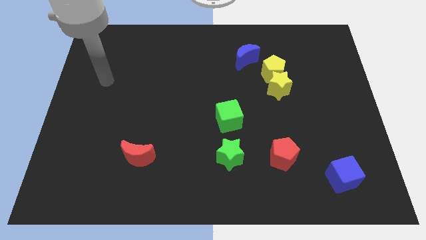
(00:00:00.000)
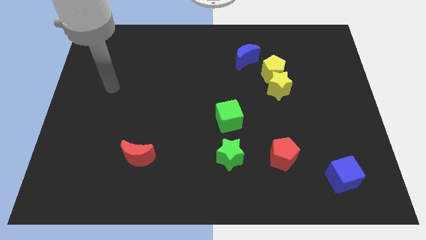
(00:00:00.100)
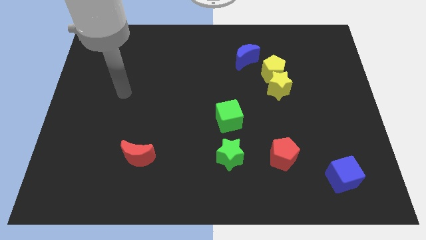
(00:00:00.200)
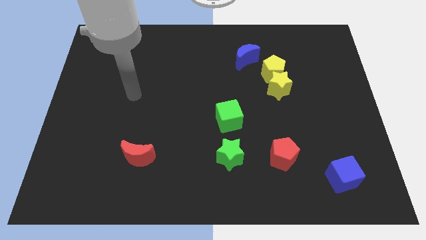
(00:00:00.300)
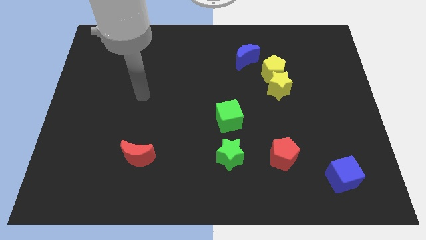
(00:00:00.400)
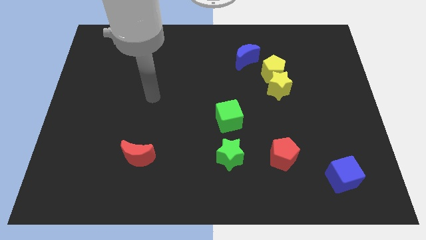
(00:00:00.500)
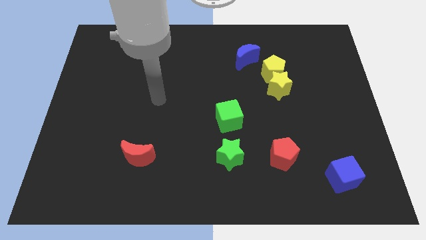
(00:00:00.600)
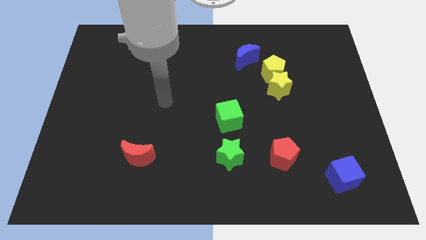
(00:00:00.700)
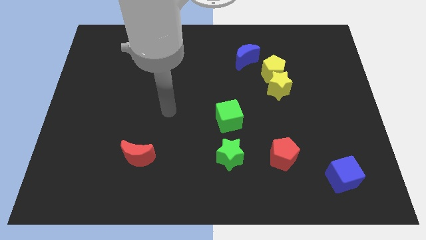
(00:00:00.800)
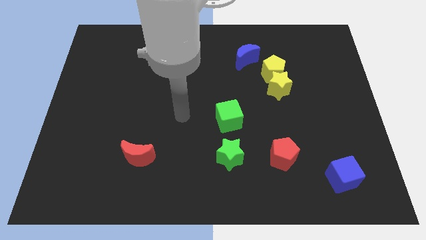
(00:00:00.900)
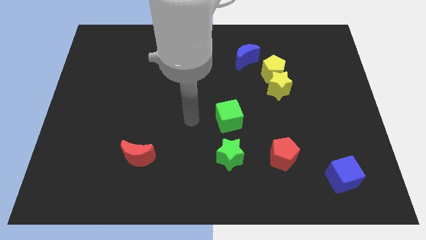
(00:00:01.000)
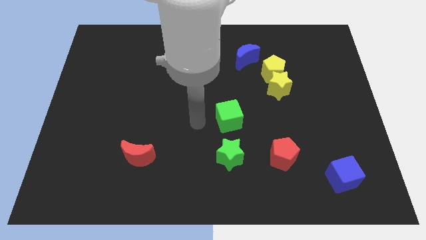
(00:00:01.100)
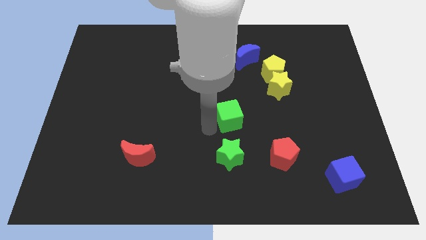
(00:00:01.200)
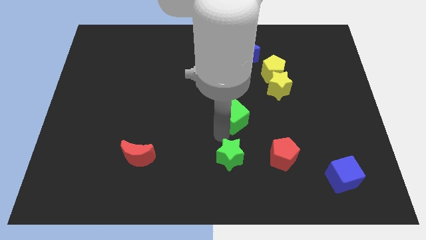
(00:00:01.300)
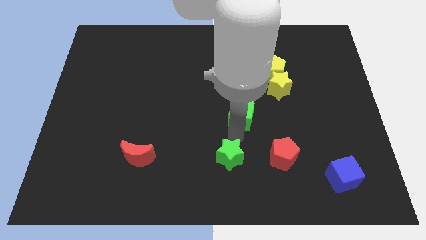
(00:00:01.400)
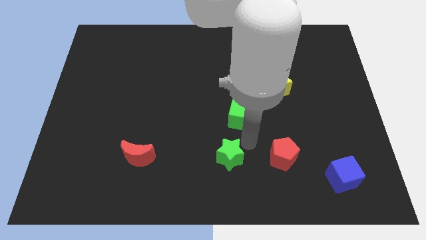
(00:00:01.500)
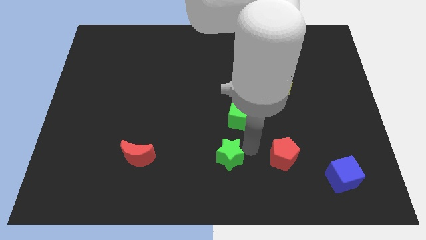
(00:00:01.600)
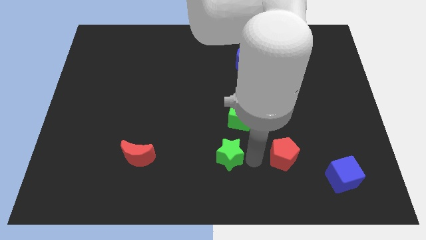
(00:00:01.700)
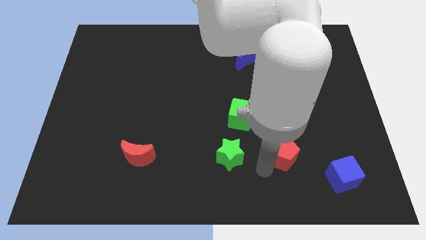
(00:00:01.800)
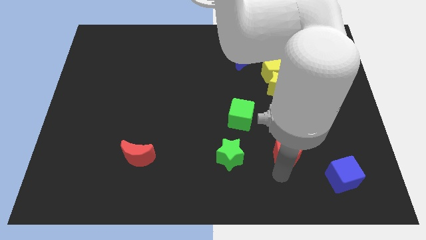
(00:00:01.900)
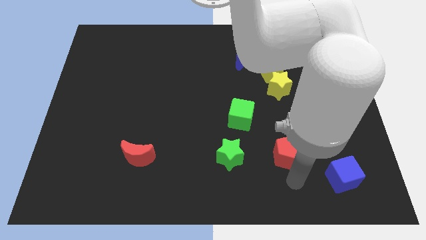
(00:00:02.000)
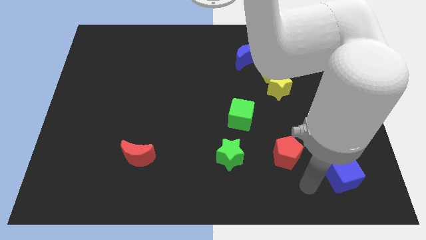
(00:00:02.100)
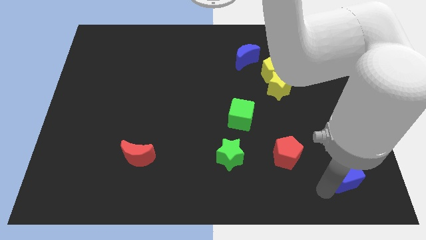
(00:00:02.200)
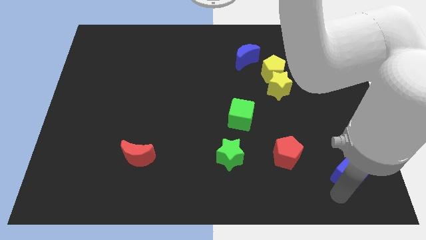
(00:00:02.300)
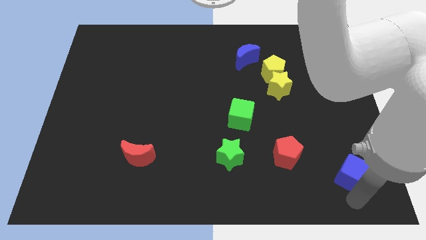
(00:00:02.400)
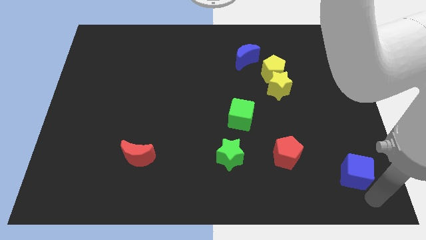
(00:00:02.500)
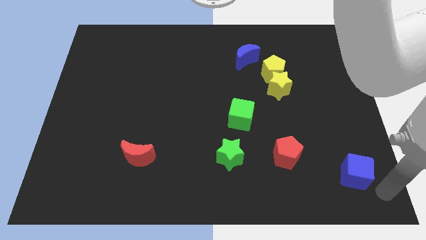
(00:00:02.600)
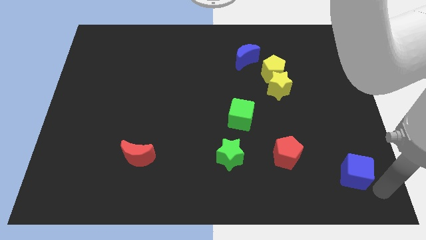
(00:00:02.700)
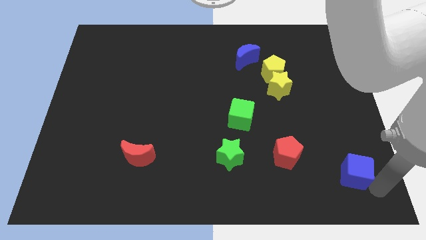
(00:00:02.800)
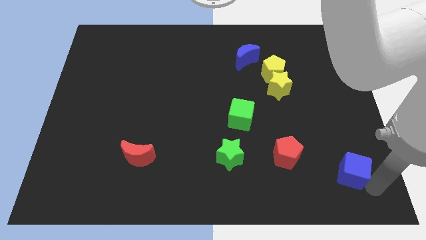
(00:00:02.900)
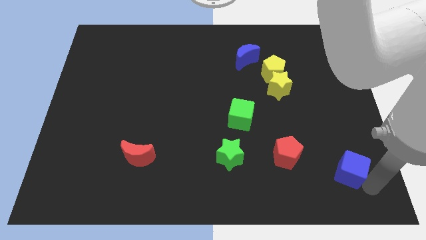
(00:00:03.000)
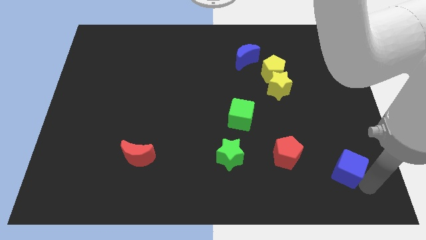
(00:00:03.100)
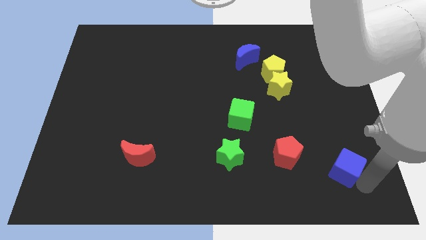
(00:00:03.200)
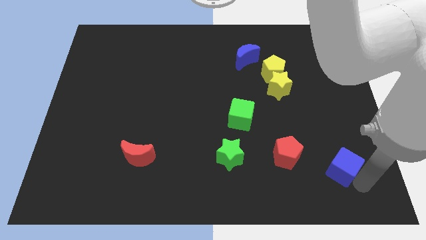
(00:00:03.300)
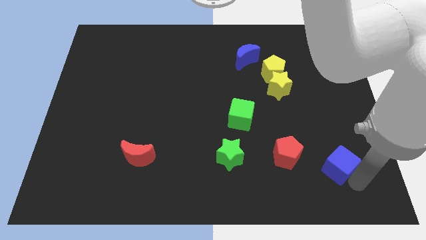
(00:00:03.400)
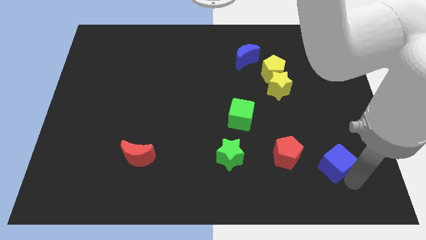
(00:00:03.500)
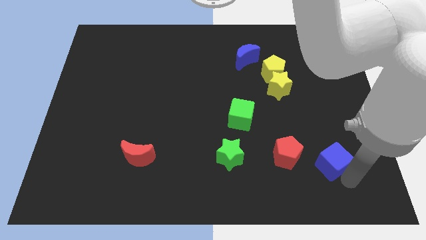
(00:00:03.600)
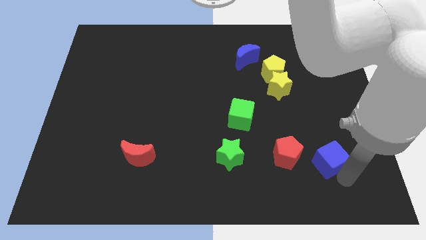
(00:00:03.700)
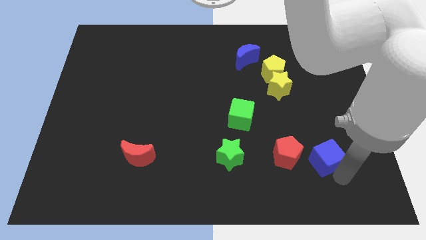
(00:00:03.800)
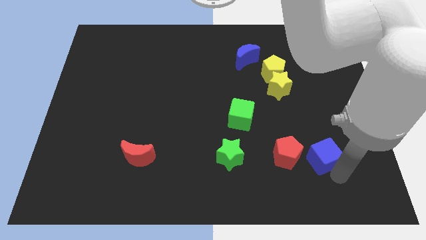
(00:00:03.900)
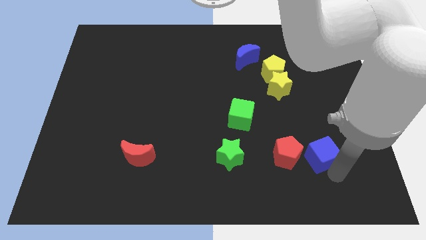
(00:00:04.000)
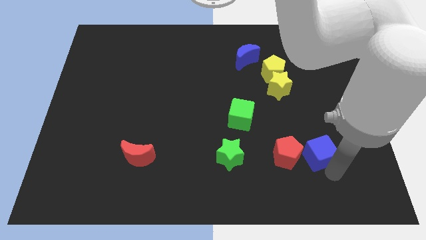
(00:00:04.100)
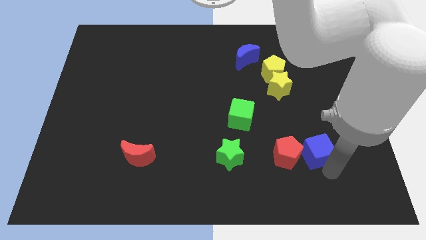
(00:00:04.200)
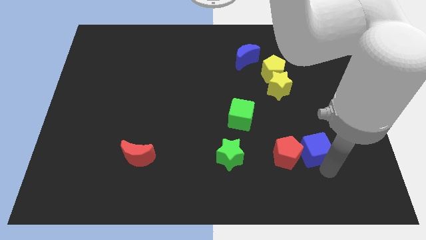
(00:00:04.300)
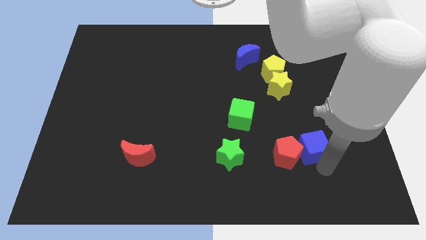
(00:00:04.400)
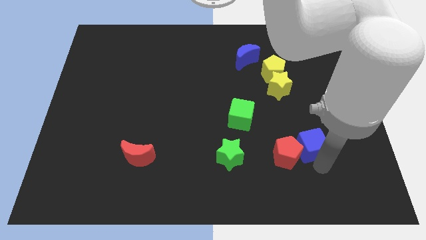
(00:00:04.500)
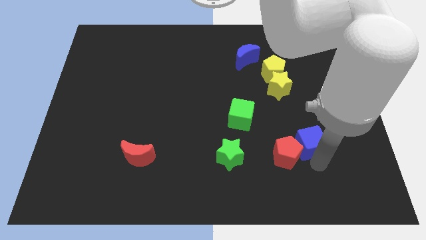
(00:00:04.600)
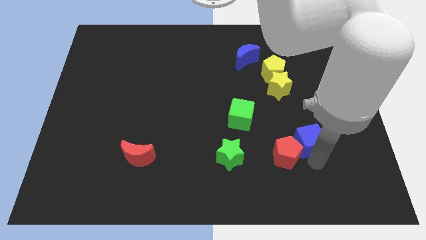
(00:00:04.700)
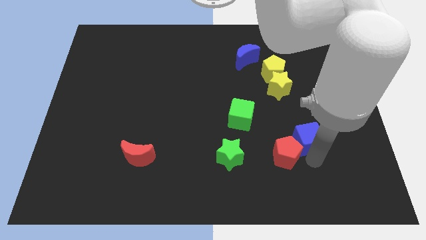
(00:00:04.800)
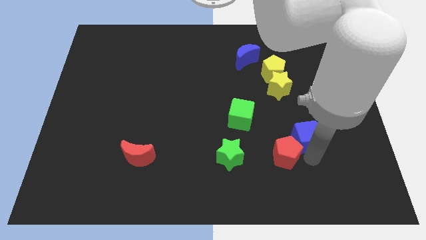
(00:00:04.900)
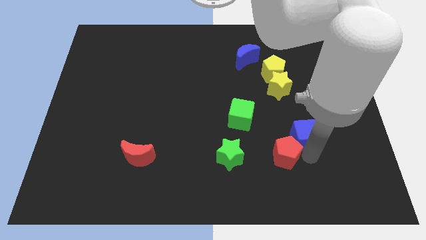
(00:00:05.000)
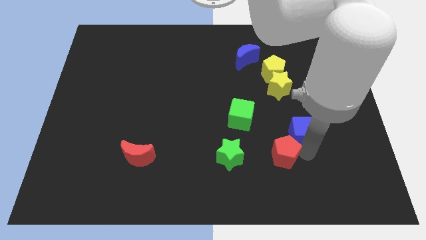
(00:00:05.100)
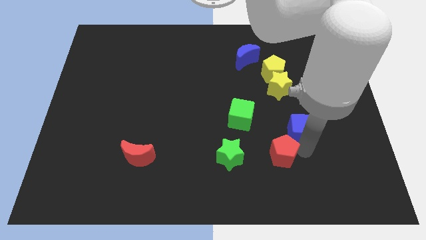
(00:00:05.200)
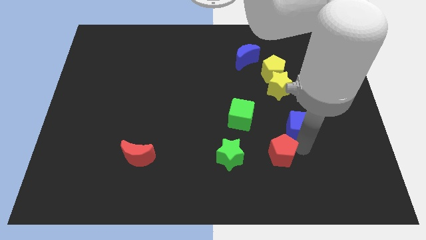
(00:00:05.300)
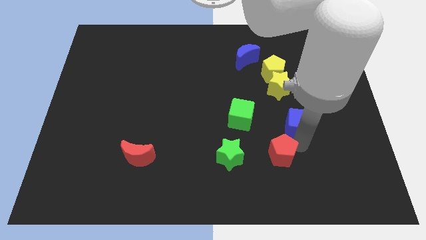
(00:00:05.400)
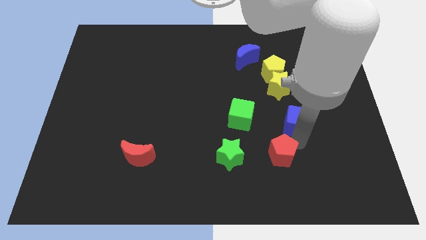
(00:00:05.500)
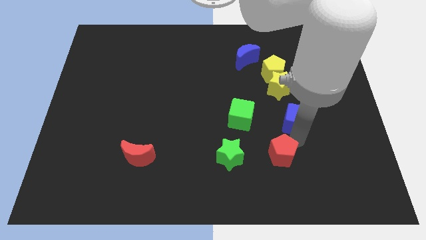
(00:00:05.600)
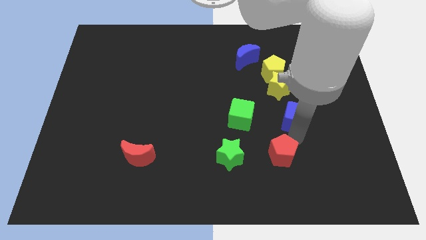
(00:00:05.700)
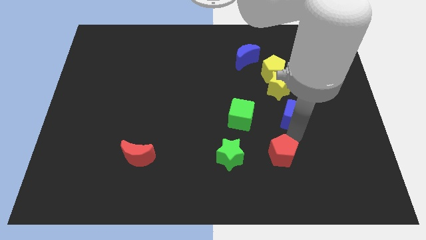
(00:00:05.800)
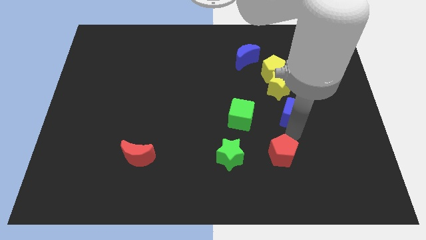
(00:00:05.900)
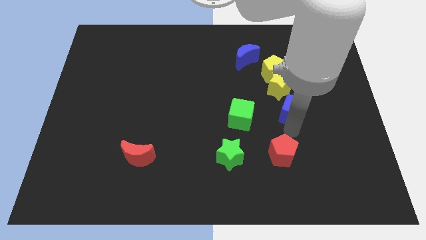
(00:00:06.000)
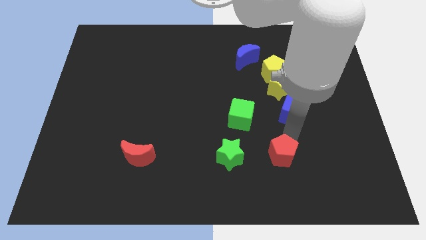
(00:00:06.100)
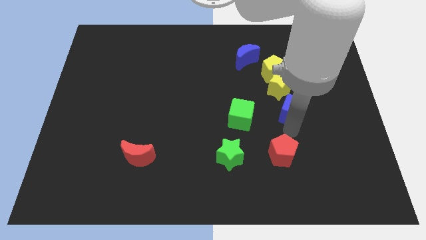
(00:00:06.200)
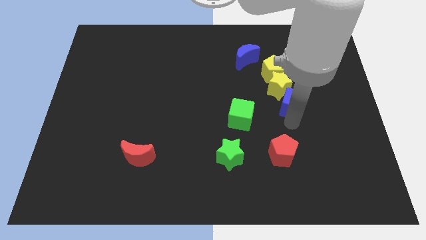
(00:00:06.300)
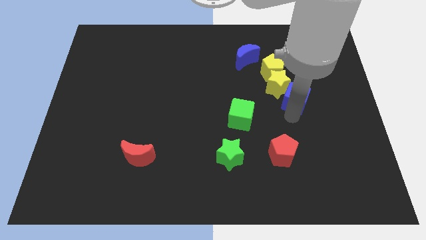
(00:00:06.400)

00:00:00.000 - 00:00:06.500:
push the blue cube to the bottom right side of the yellow pentagon

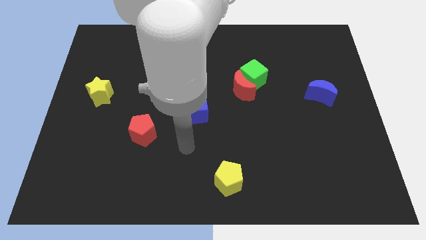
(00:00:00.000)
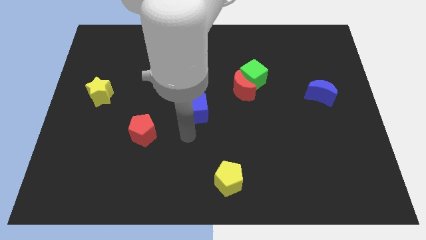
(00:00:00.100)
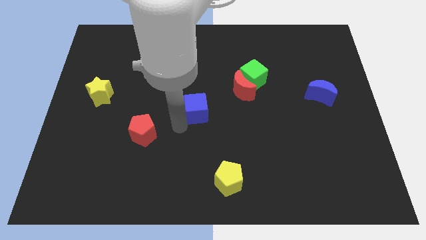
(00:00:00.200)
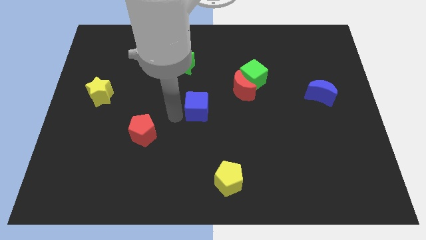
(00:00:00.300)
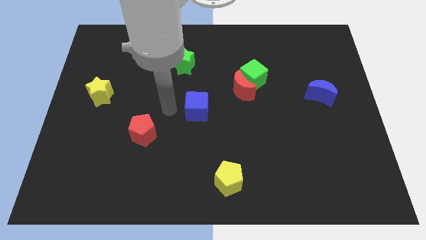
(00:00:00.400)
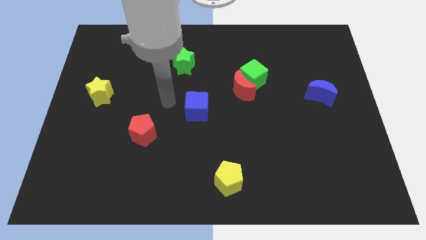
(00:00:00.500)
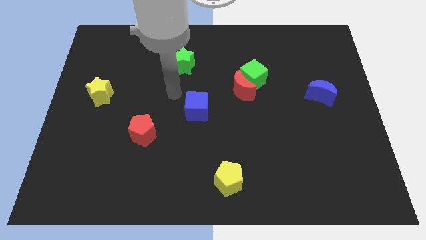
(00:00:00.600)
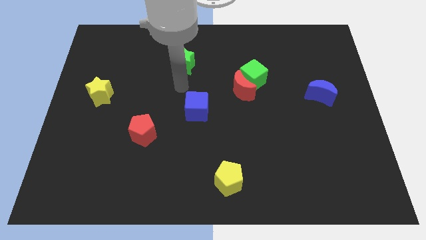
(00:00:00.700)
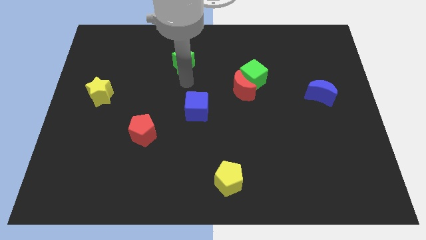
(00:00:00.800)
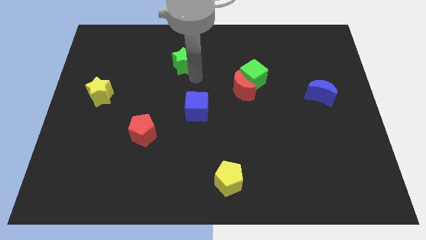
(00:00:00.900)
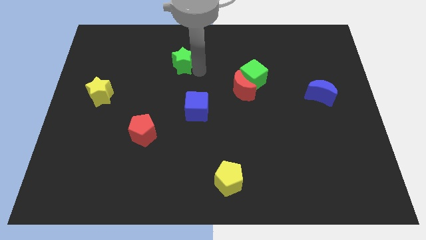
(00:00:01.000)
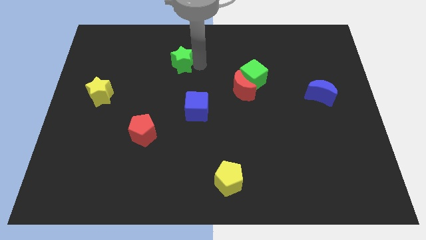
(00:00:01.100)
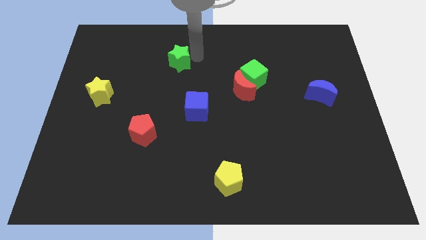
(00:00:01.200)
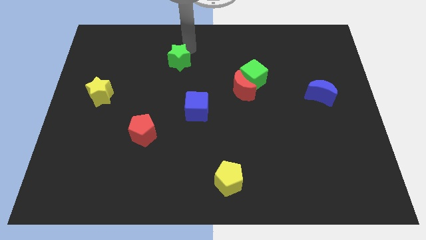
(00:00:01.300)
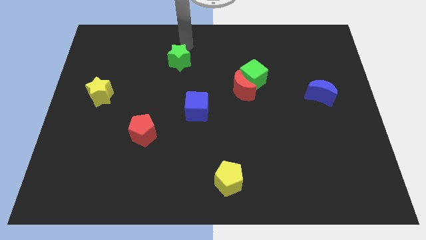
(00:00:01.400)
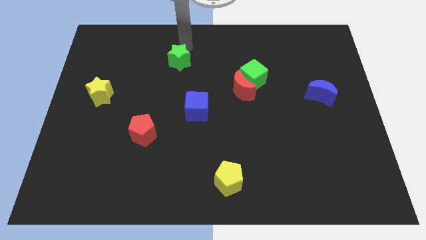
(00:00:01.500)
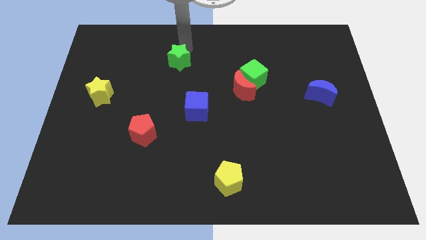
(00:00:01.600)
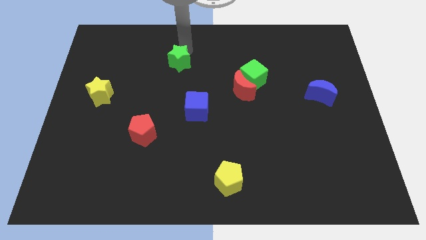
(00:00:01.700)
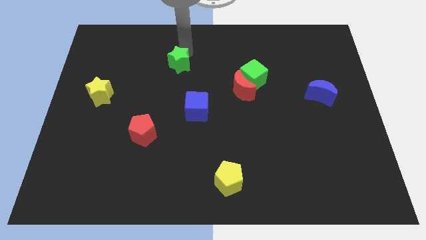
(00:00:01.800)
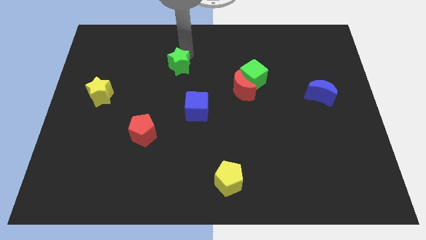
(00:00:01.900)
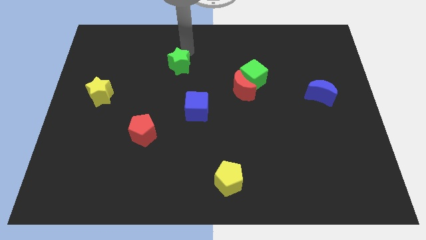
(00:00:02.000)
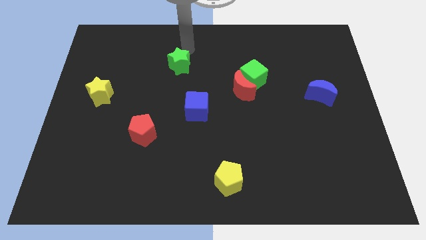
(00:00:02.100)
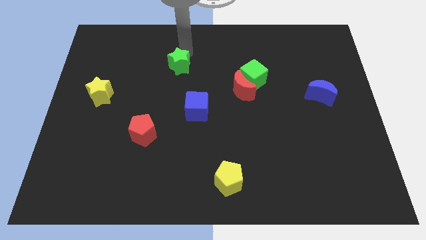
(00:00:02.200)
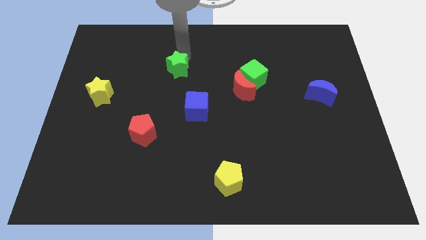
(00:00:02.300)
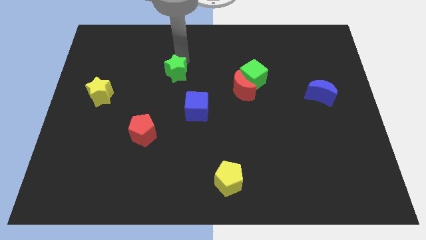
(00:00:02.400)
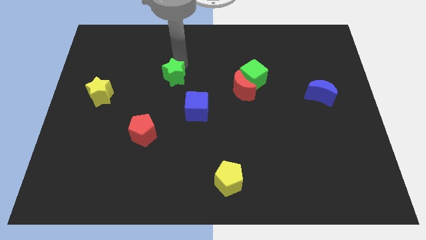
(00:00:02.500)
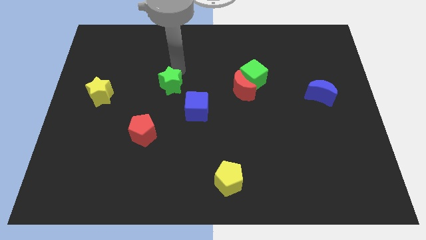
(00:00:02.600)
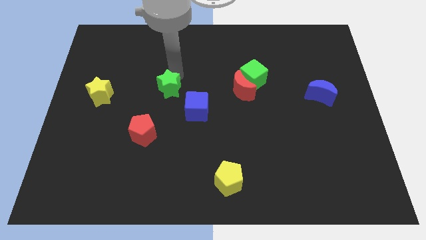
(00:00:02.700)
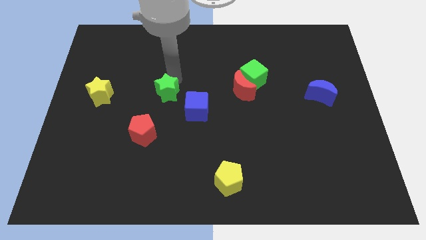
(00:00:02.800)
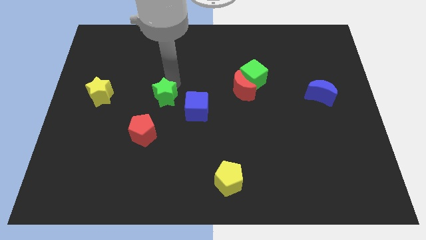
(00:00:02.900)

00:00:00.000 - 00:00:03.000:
push the green star just left of the blue cube
